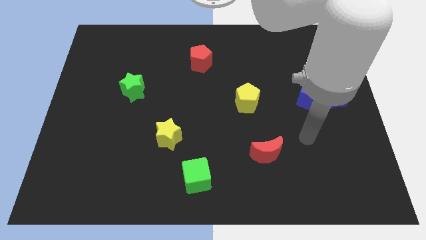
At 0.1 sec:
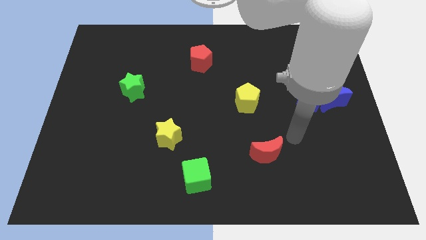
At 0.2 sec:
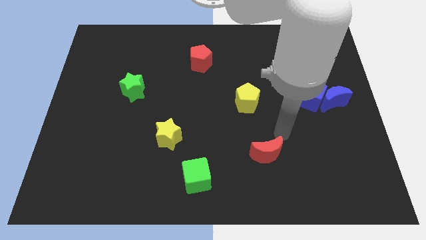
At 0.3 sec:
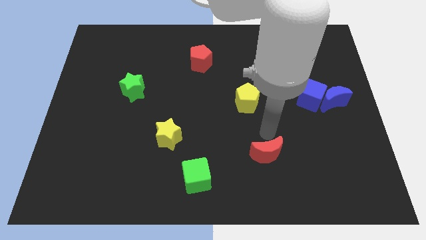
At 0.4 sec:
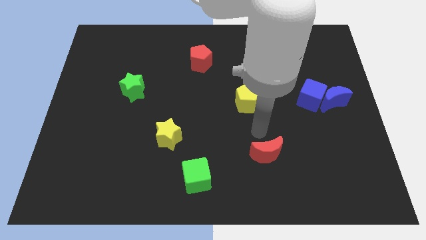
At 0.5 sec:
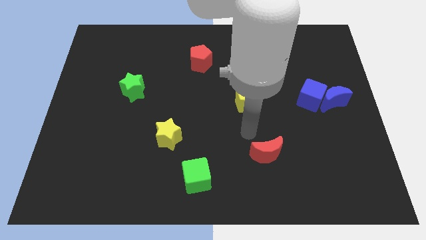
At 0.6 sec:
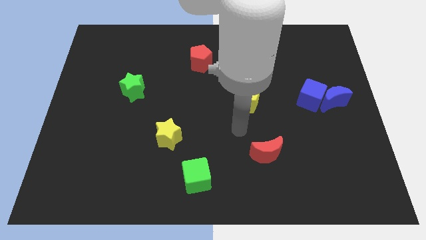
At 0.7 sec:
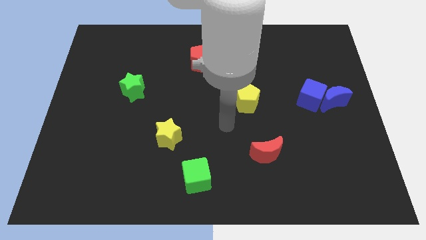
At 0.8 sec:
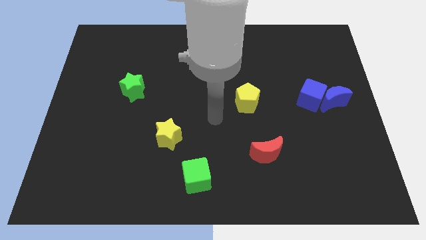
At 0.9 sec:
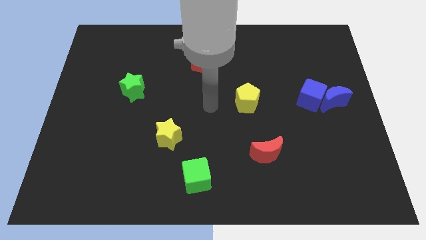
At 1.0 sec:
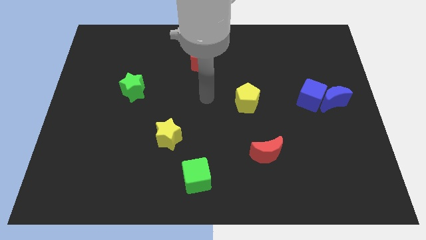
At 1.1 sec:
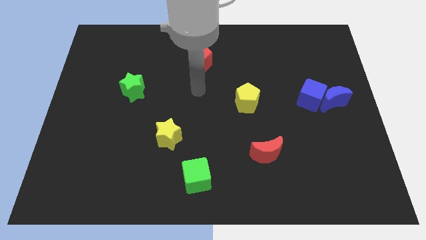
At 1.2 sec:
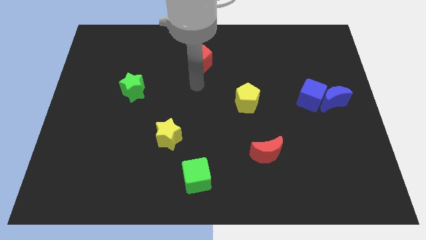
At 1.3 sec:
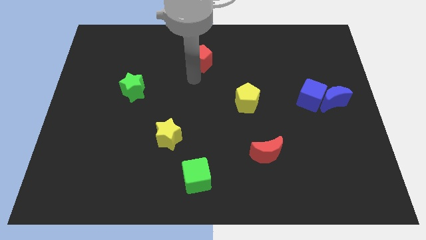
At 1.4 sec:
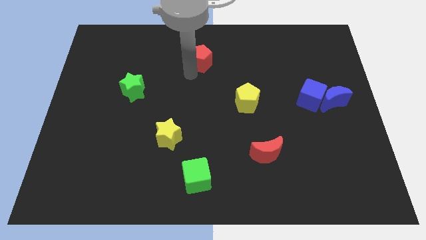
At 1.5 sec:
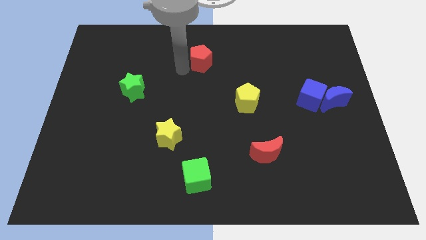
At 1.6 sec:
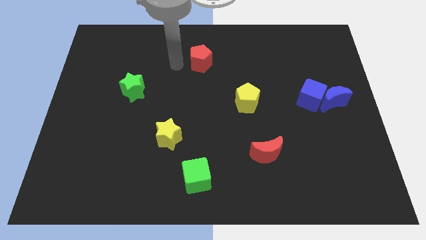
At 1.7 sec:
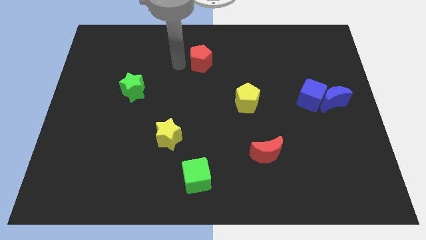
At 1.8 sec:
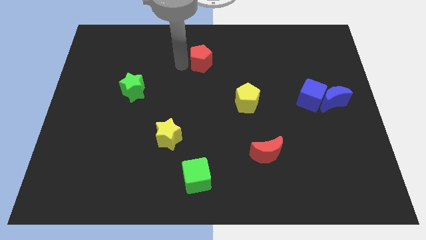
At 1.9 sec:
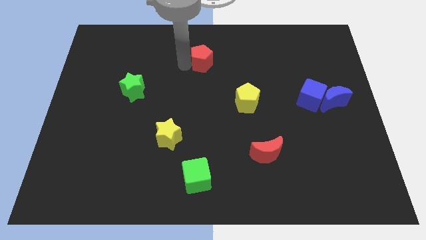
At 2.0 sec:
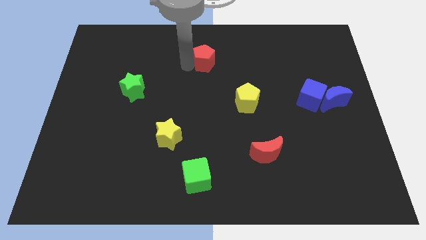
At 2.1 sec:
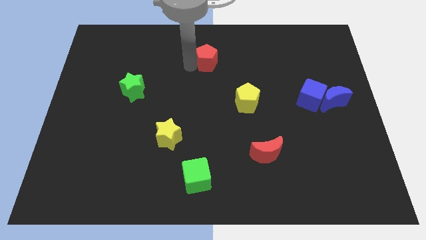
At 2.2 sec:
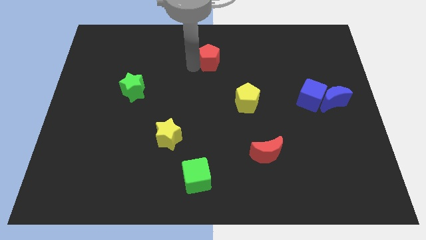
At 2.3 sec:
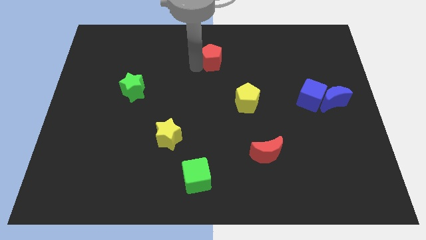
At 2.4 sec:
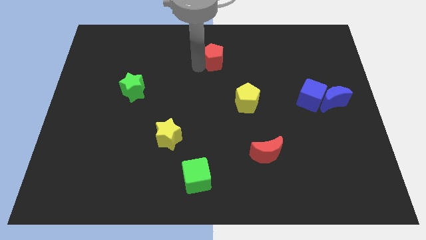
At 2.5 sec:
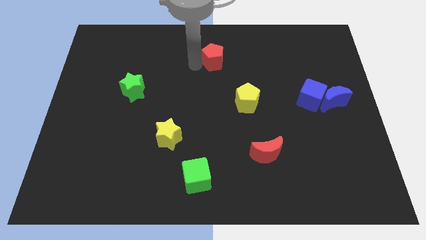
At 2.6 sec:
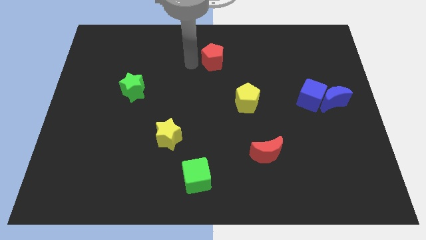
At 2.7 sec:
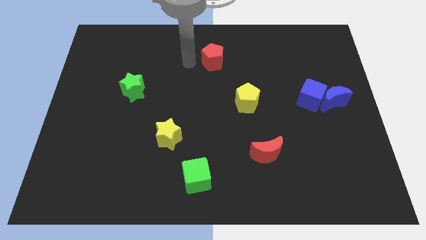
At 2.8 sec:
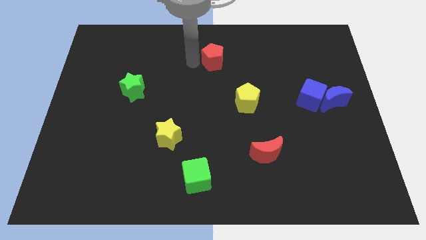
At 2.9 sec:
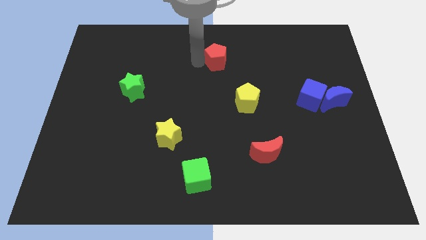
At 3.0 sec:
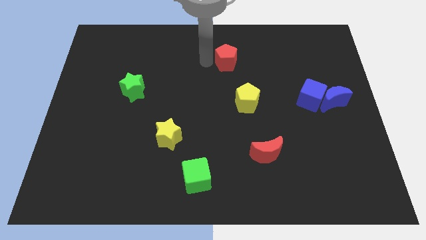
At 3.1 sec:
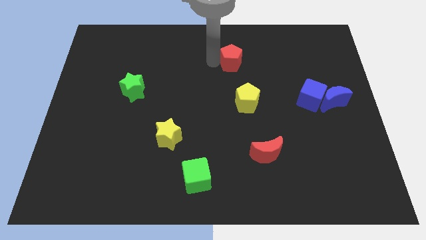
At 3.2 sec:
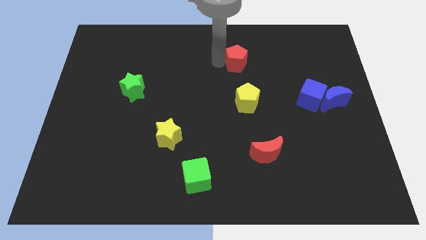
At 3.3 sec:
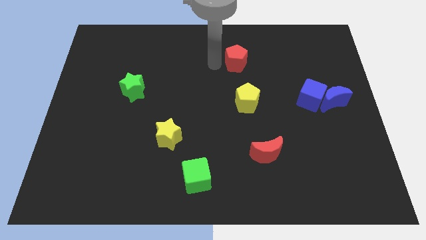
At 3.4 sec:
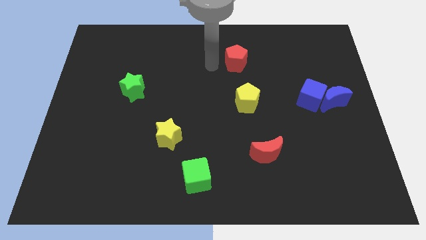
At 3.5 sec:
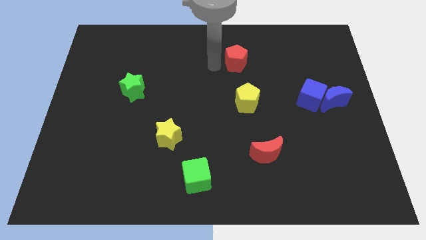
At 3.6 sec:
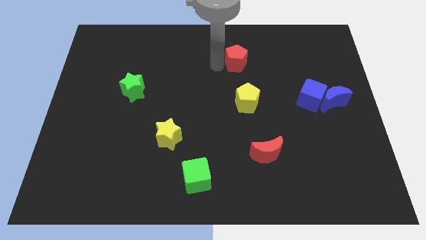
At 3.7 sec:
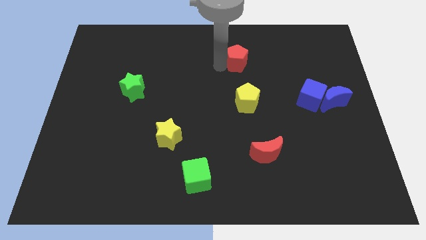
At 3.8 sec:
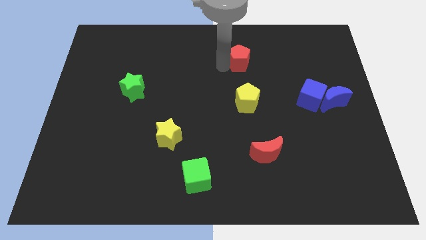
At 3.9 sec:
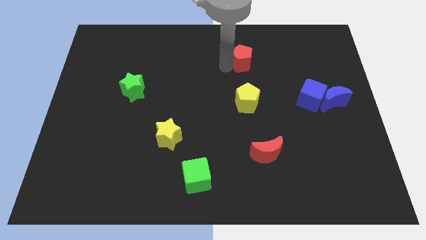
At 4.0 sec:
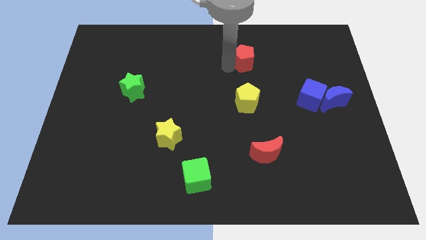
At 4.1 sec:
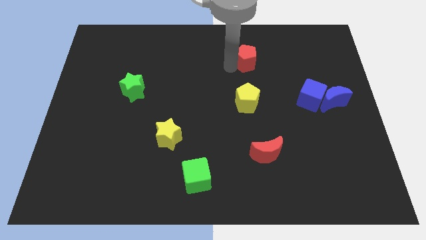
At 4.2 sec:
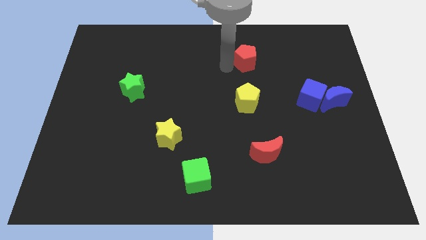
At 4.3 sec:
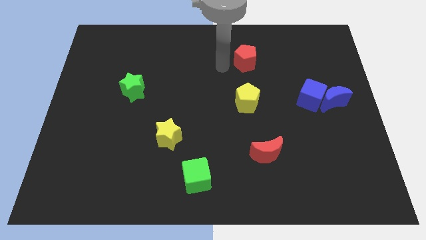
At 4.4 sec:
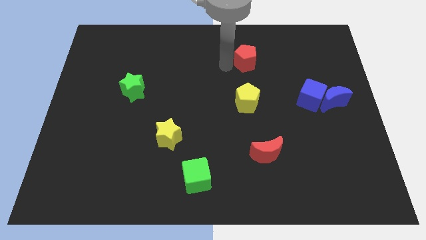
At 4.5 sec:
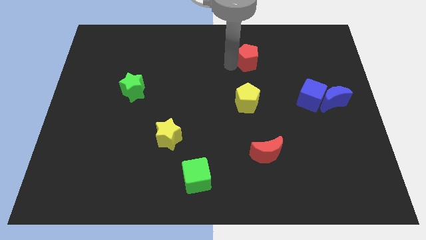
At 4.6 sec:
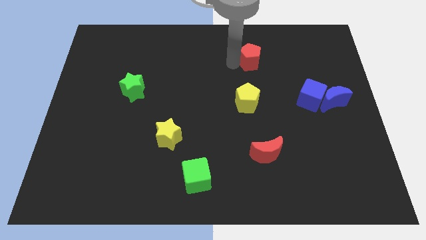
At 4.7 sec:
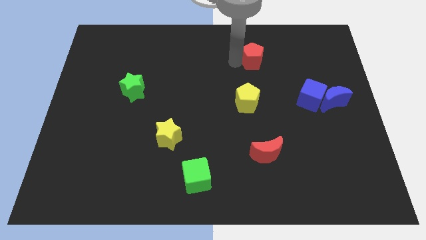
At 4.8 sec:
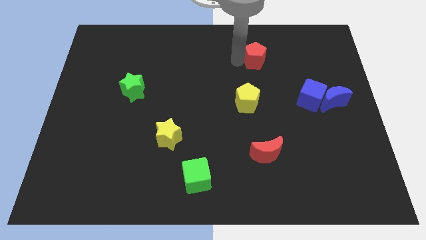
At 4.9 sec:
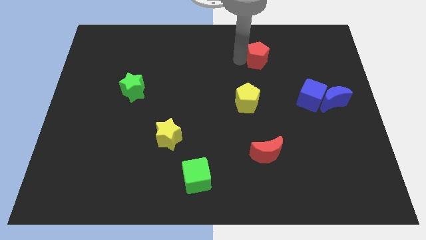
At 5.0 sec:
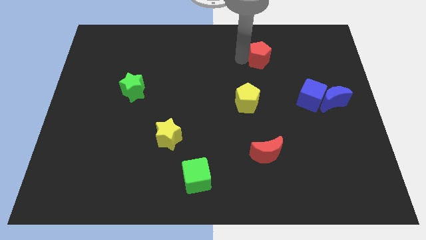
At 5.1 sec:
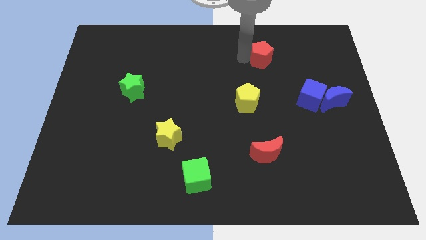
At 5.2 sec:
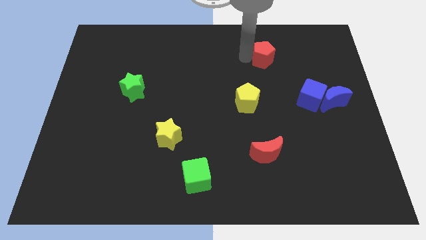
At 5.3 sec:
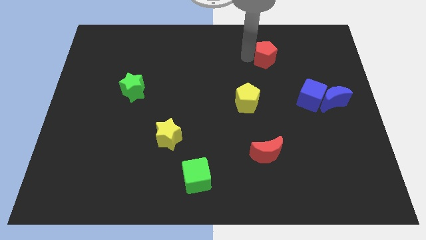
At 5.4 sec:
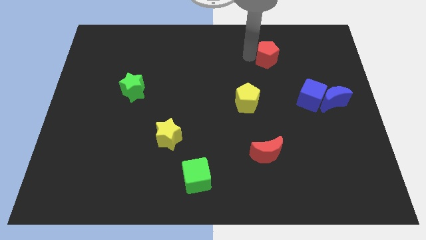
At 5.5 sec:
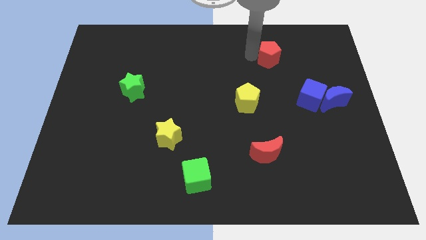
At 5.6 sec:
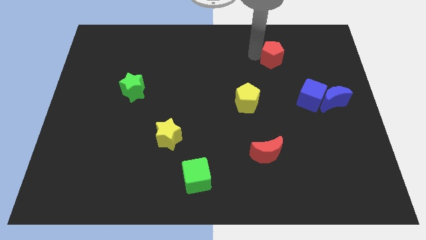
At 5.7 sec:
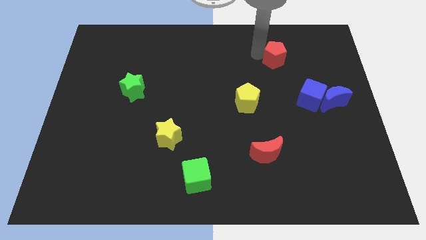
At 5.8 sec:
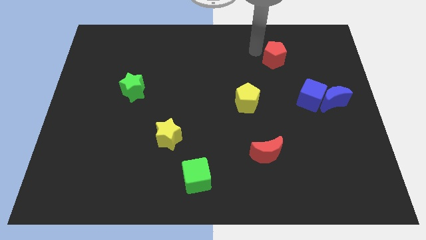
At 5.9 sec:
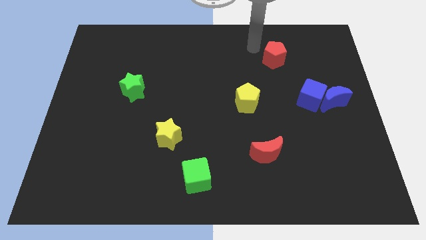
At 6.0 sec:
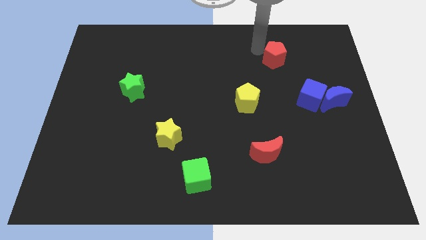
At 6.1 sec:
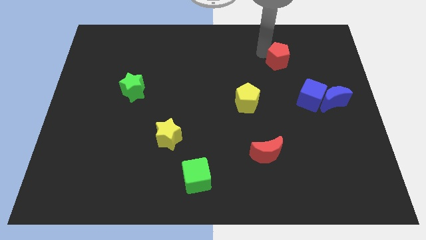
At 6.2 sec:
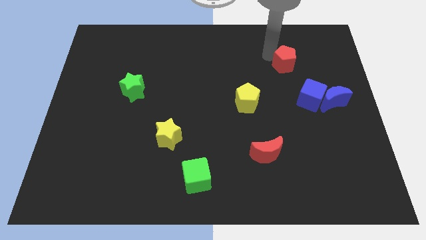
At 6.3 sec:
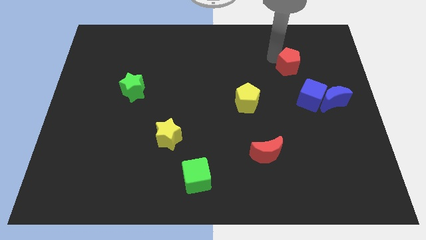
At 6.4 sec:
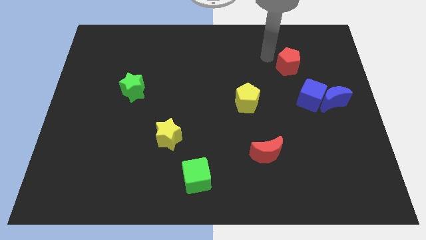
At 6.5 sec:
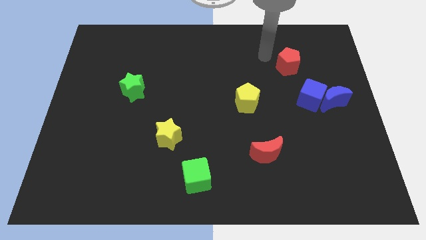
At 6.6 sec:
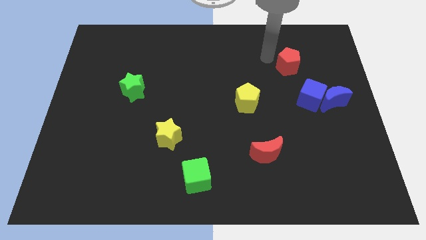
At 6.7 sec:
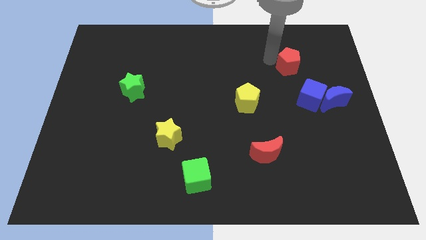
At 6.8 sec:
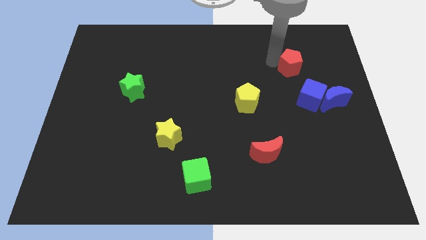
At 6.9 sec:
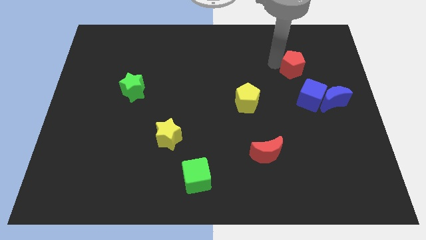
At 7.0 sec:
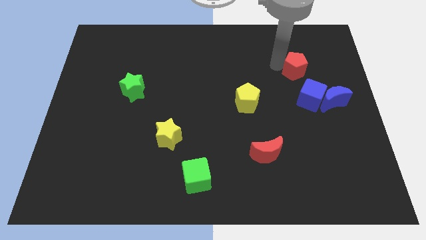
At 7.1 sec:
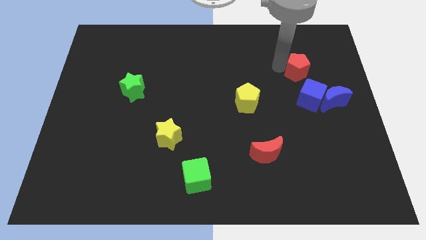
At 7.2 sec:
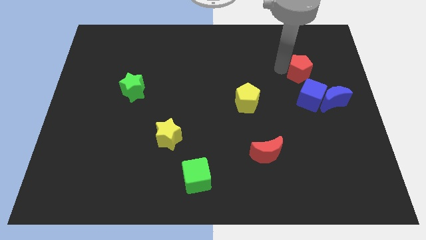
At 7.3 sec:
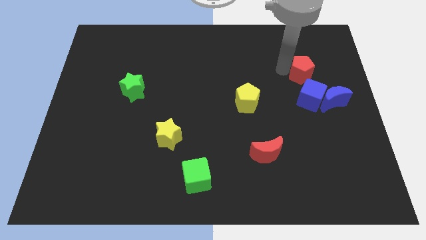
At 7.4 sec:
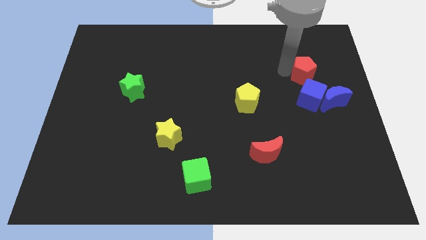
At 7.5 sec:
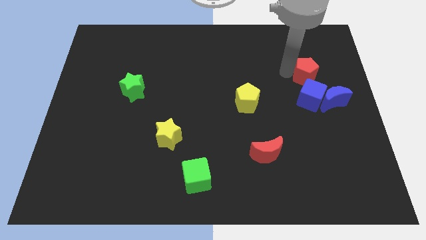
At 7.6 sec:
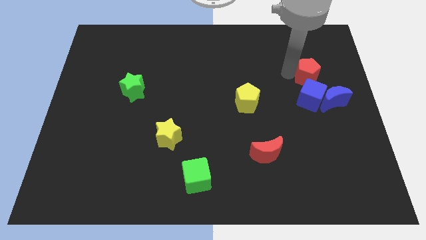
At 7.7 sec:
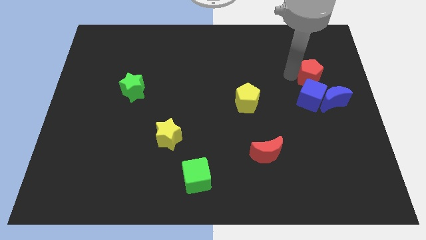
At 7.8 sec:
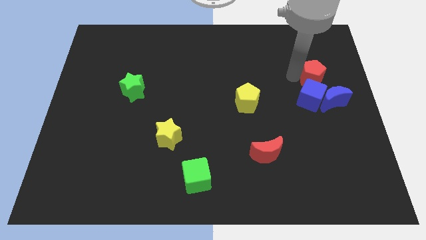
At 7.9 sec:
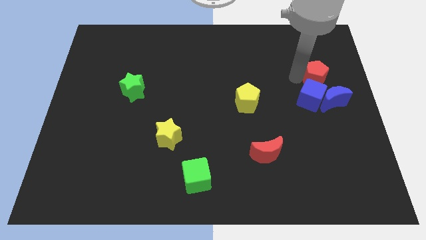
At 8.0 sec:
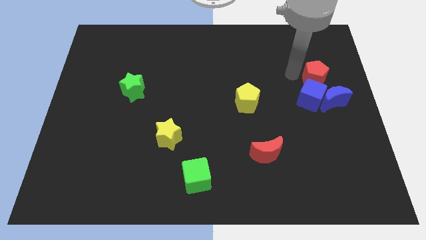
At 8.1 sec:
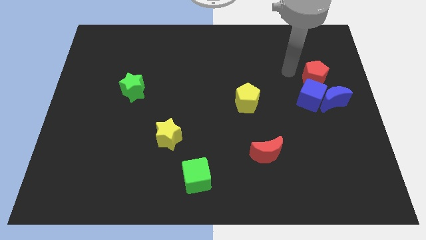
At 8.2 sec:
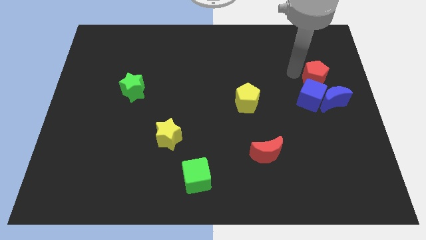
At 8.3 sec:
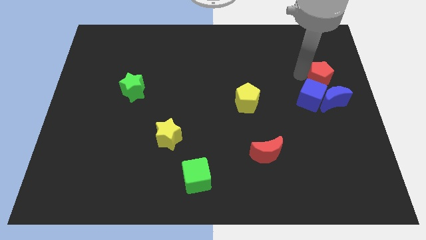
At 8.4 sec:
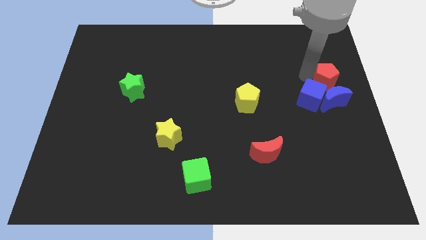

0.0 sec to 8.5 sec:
move the red pentagon to the right side
